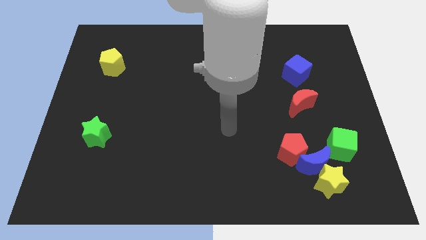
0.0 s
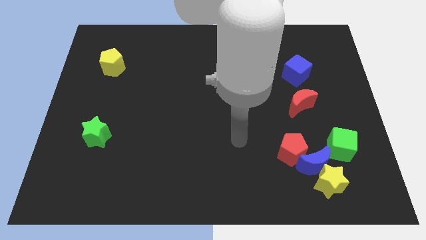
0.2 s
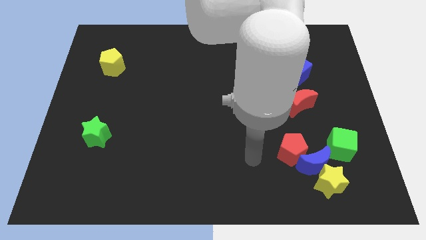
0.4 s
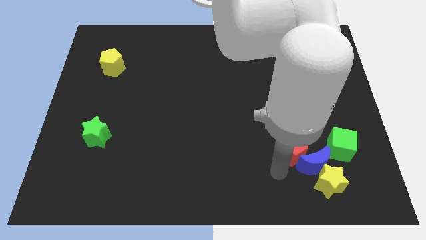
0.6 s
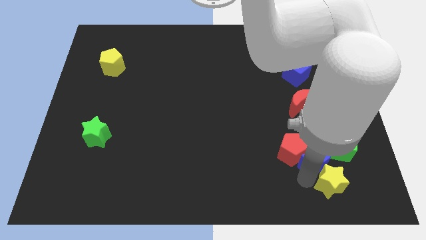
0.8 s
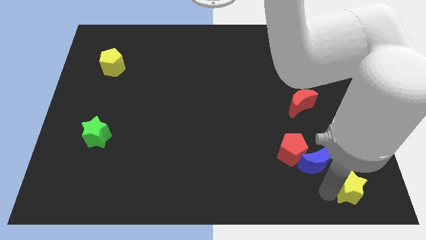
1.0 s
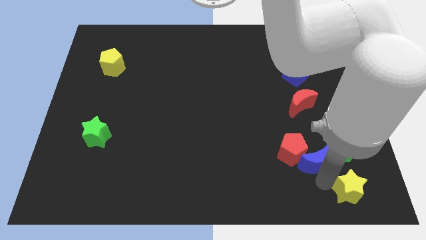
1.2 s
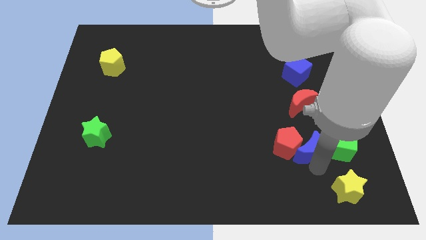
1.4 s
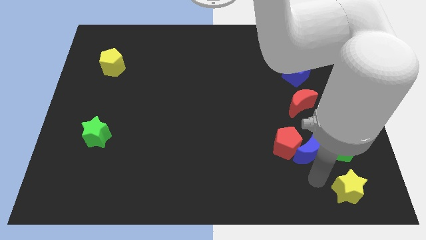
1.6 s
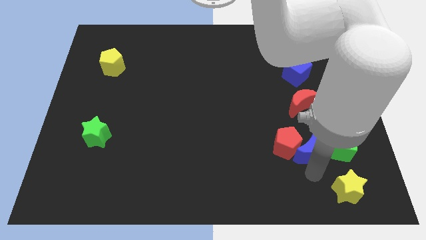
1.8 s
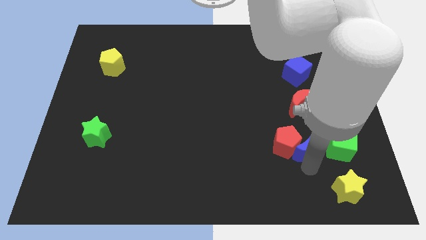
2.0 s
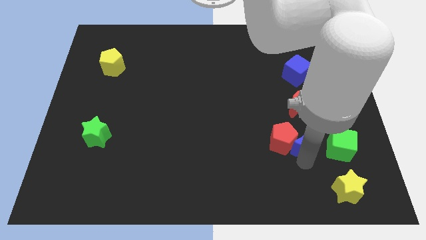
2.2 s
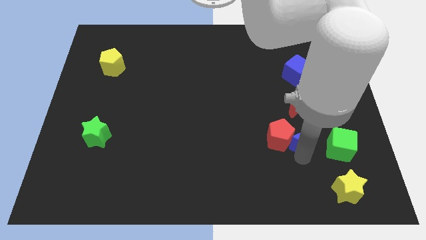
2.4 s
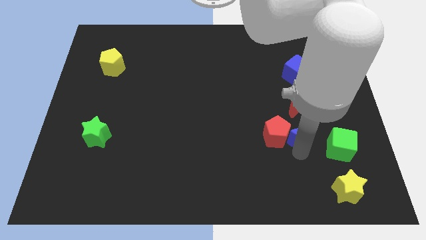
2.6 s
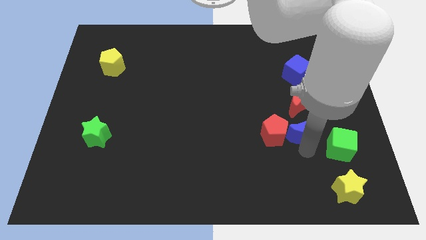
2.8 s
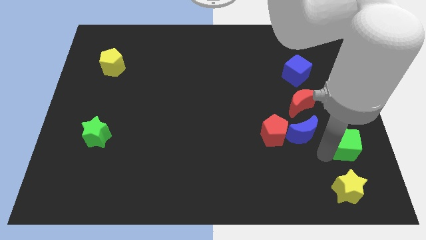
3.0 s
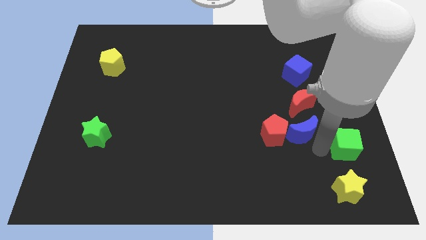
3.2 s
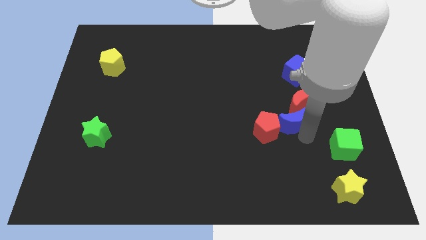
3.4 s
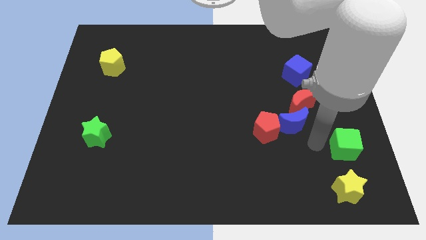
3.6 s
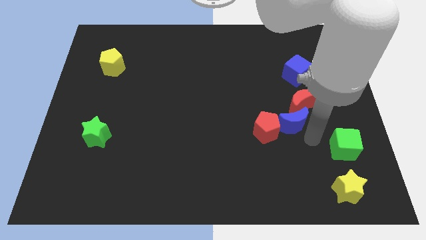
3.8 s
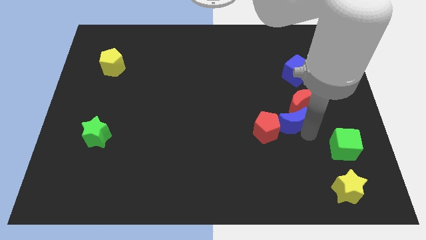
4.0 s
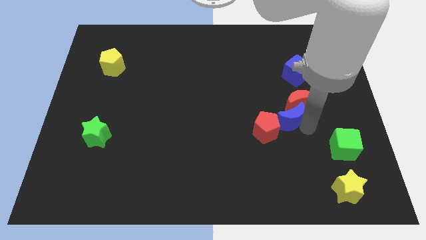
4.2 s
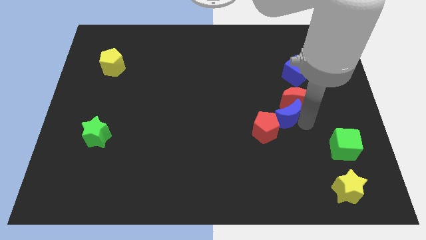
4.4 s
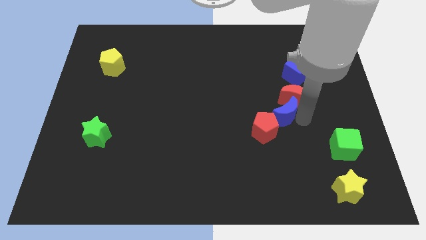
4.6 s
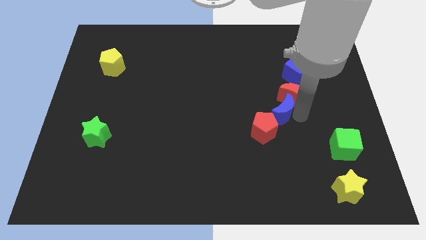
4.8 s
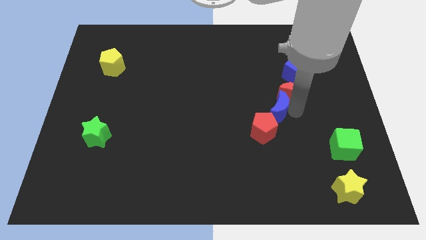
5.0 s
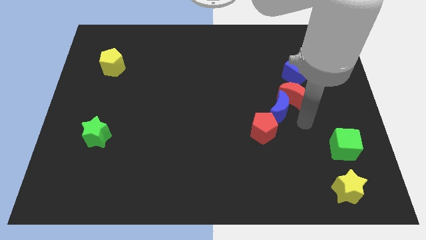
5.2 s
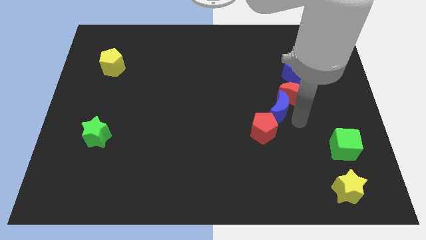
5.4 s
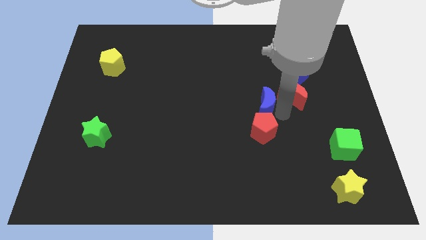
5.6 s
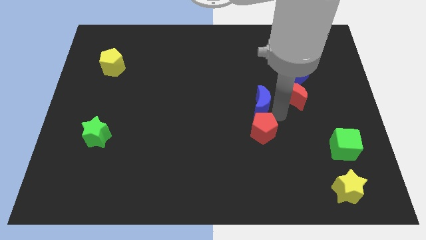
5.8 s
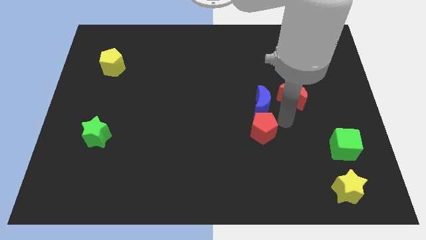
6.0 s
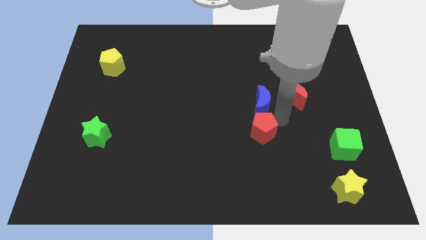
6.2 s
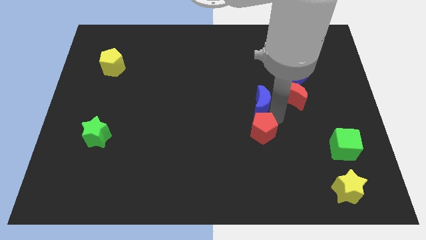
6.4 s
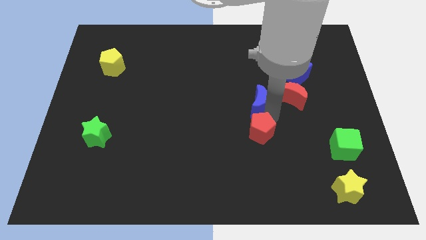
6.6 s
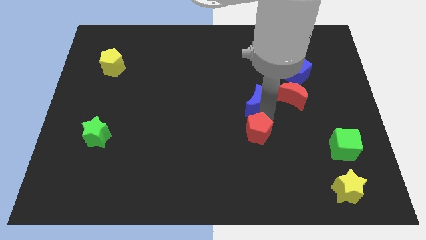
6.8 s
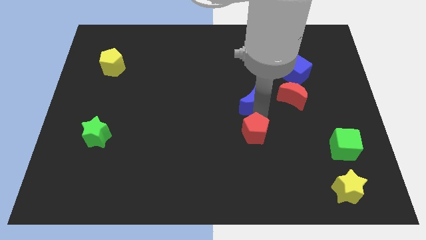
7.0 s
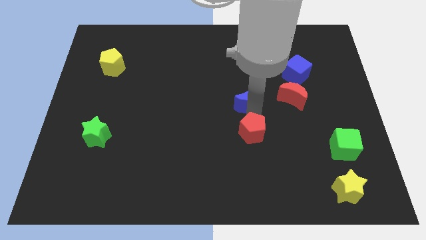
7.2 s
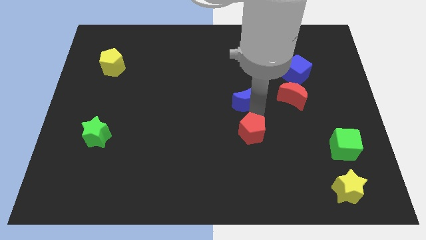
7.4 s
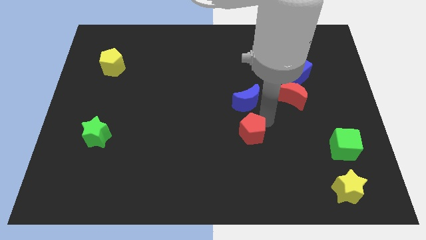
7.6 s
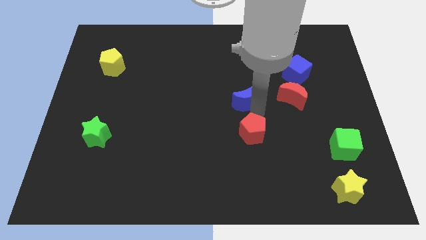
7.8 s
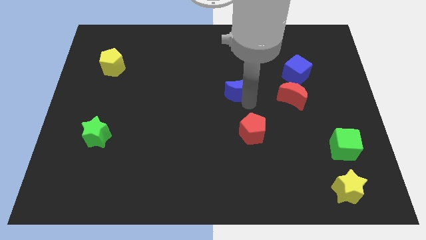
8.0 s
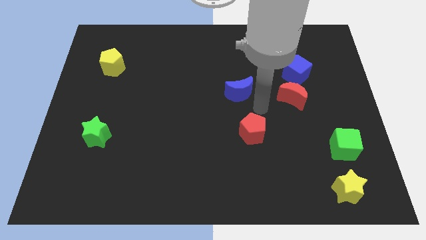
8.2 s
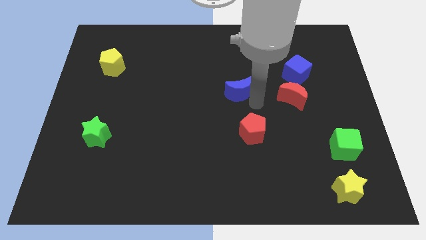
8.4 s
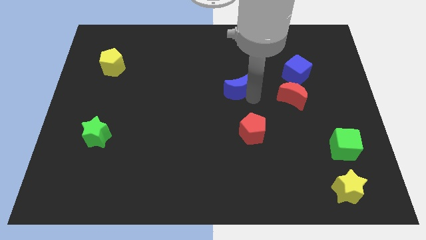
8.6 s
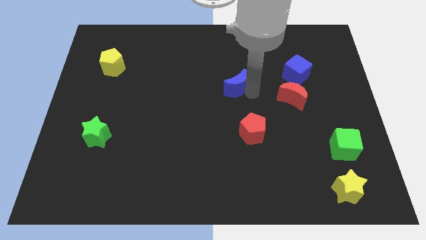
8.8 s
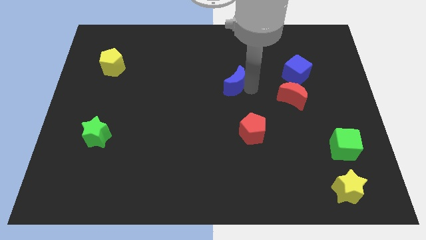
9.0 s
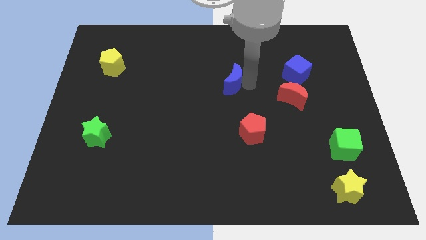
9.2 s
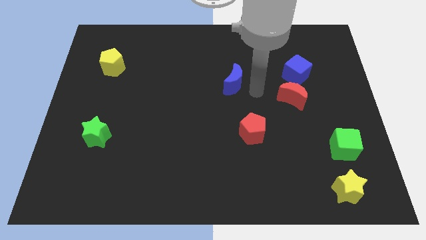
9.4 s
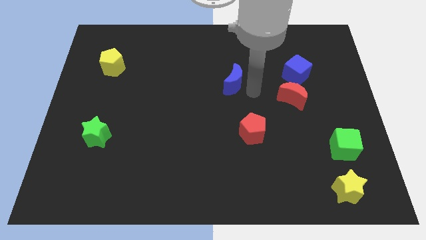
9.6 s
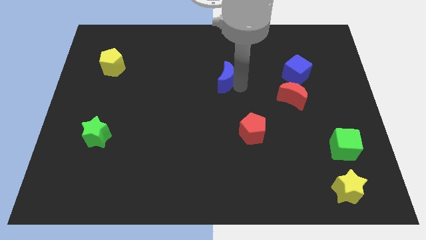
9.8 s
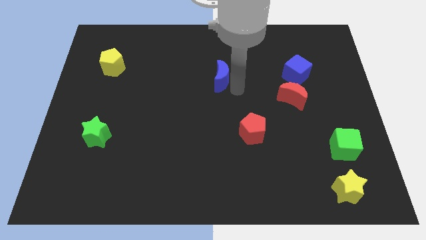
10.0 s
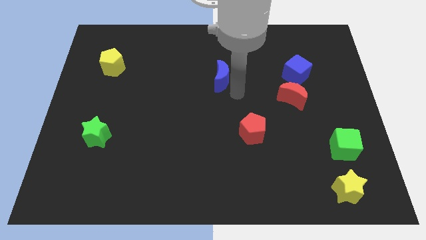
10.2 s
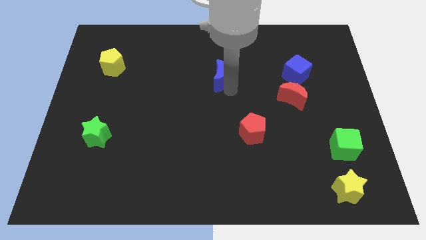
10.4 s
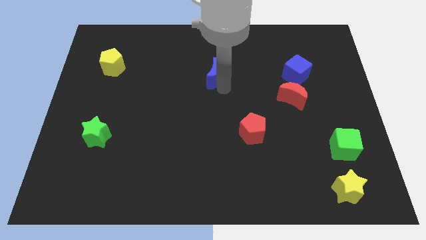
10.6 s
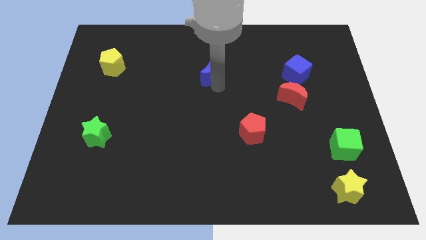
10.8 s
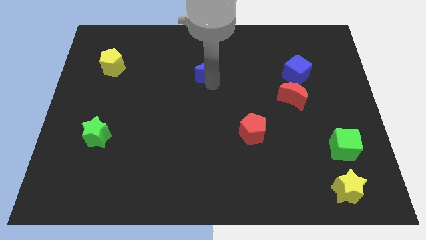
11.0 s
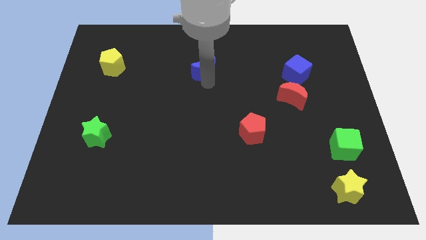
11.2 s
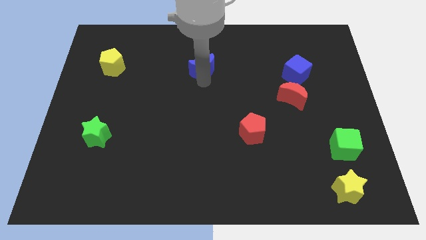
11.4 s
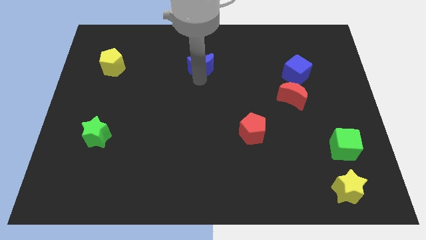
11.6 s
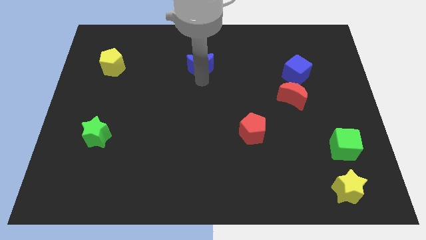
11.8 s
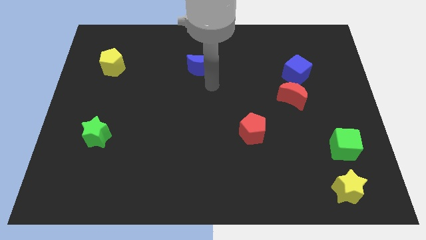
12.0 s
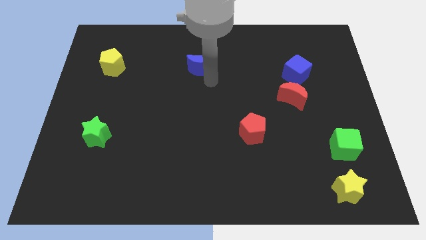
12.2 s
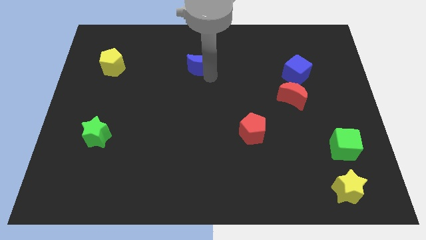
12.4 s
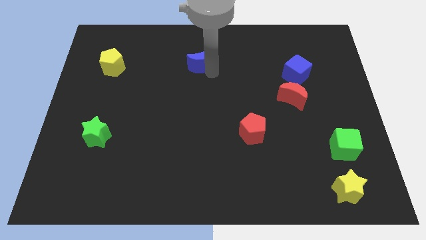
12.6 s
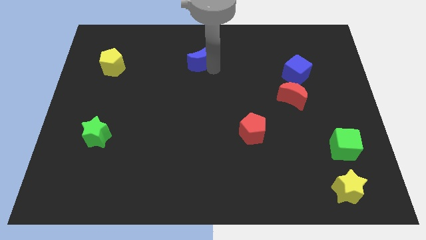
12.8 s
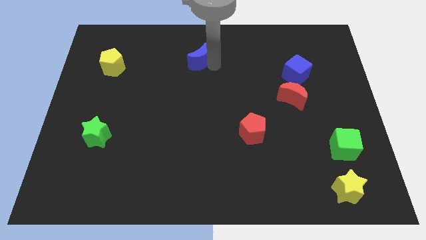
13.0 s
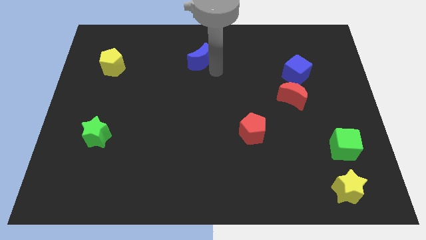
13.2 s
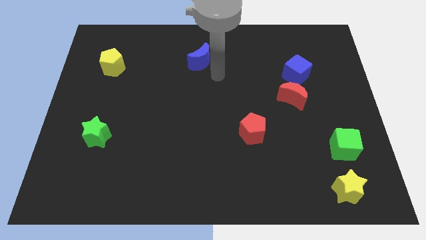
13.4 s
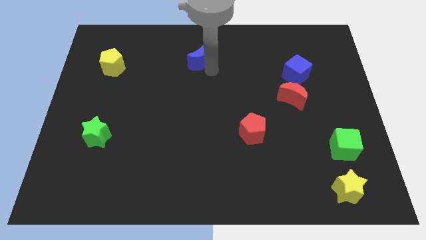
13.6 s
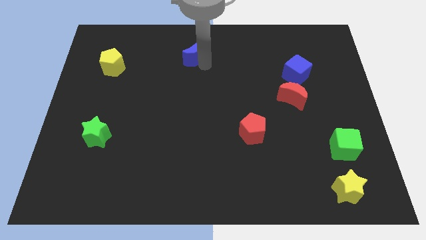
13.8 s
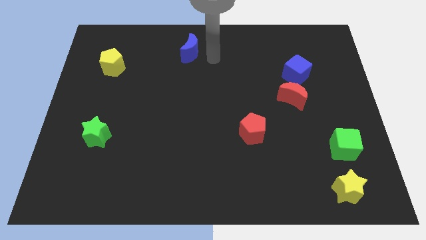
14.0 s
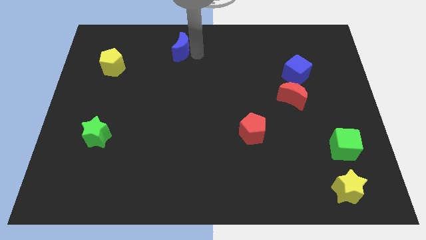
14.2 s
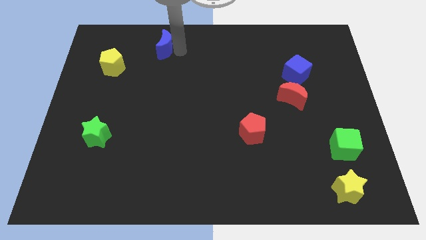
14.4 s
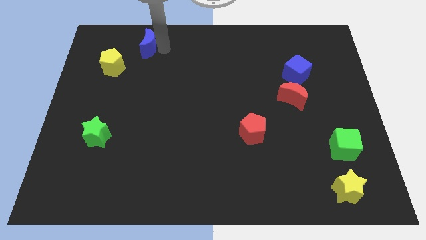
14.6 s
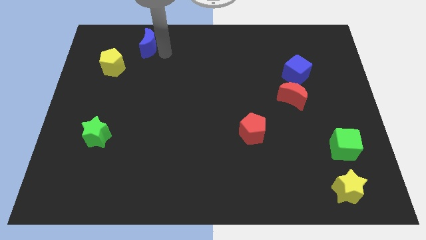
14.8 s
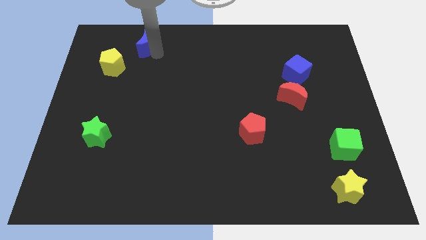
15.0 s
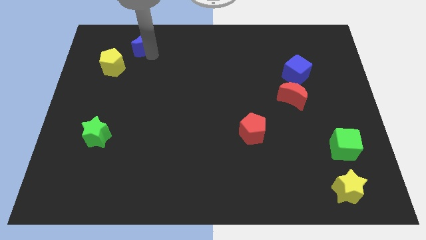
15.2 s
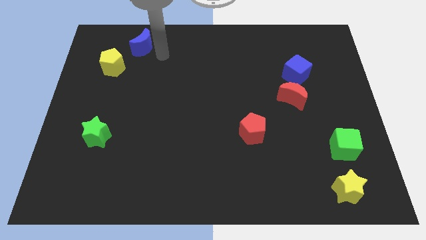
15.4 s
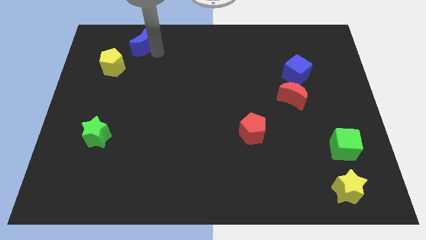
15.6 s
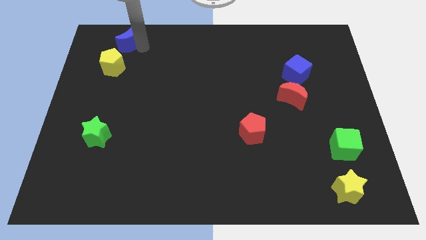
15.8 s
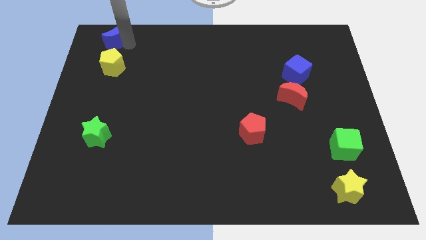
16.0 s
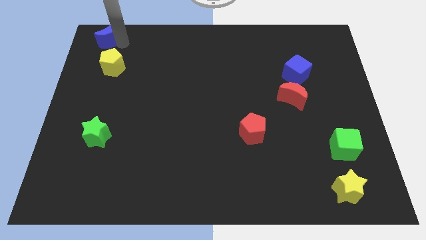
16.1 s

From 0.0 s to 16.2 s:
move the blue moon to the top left of the board
